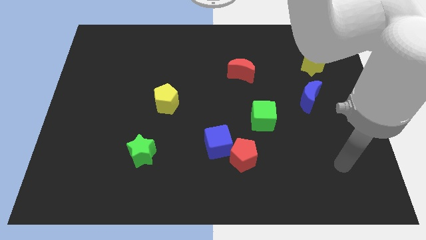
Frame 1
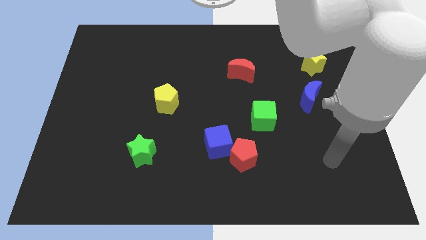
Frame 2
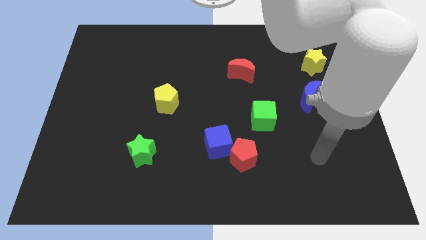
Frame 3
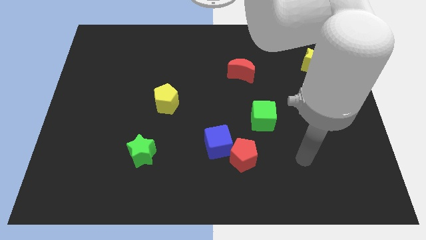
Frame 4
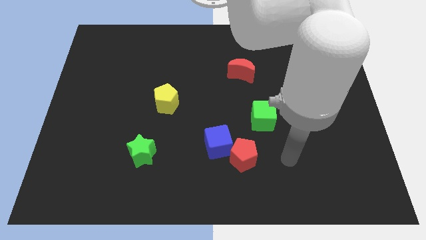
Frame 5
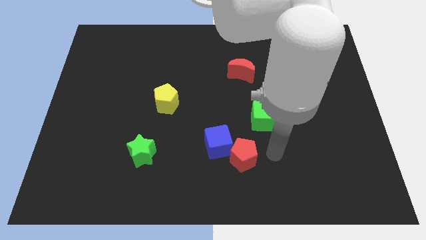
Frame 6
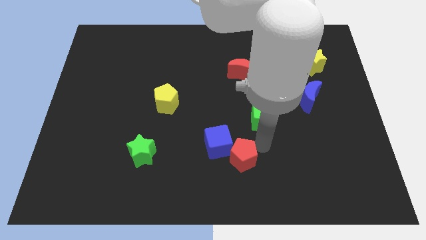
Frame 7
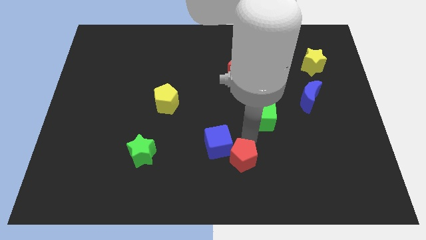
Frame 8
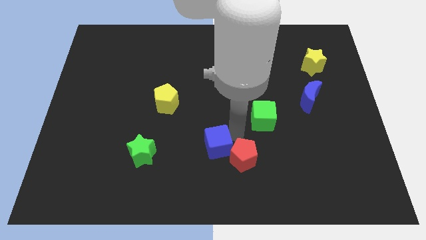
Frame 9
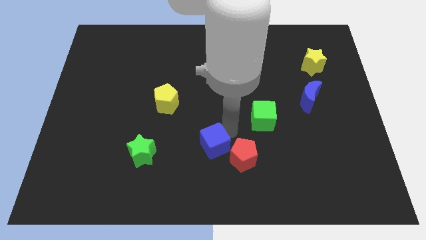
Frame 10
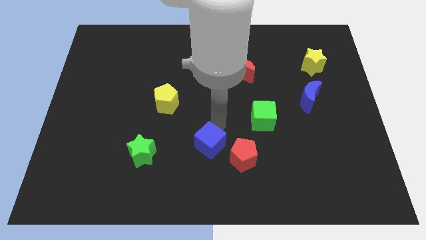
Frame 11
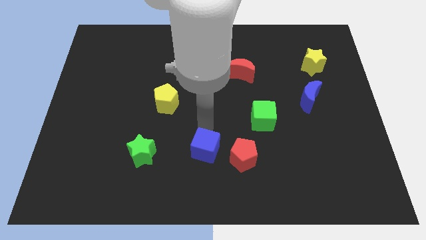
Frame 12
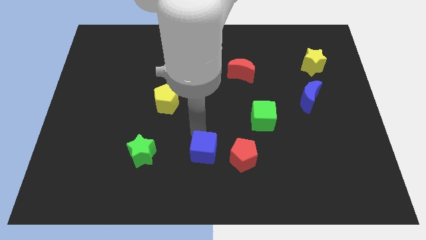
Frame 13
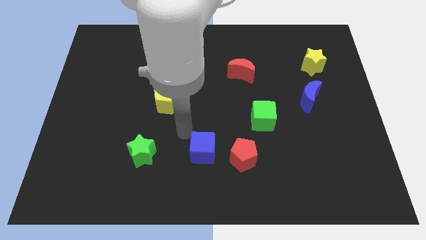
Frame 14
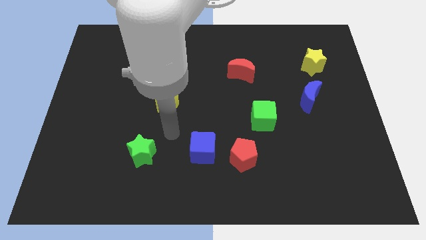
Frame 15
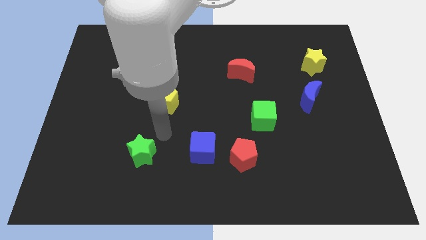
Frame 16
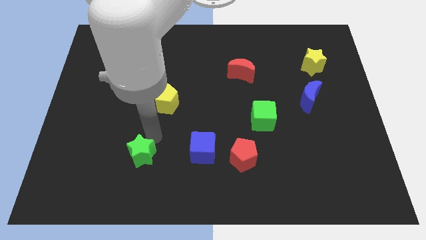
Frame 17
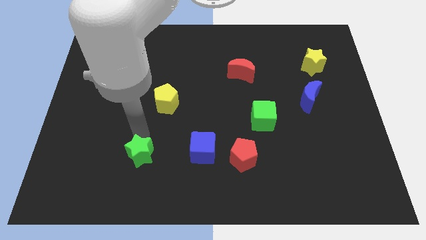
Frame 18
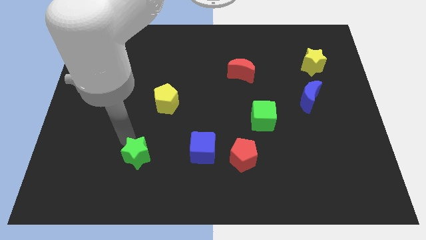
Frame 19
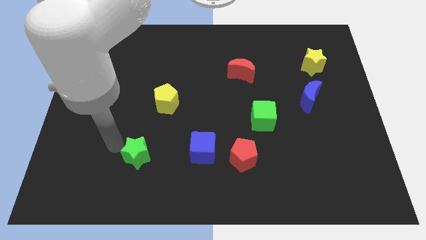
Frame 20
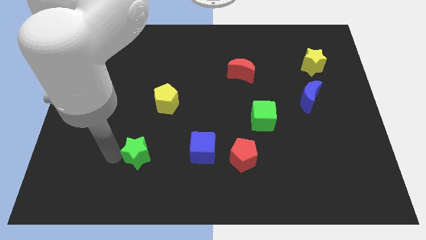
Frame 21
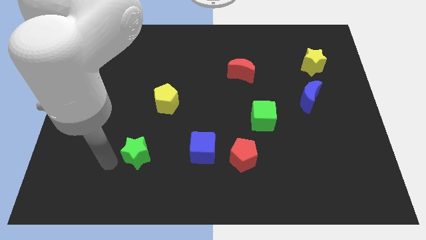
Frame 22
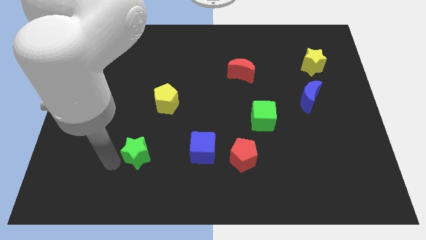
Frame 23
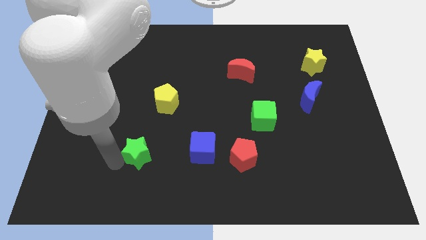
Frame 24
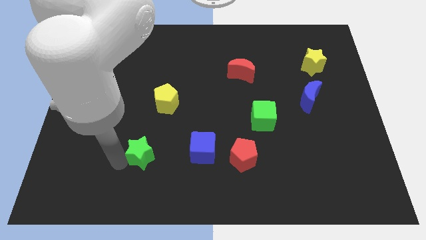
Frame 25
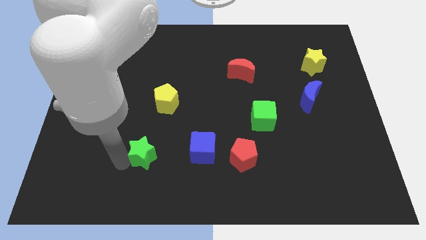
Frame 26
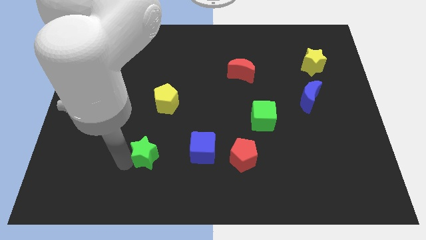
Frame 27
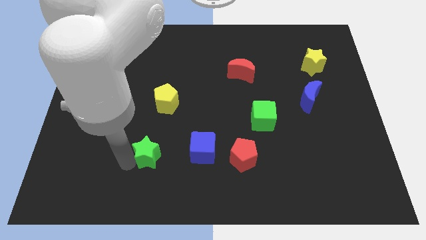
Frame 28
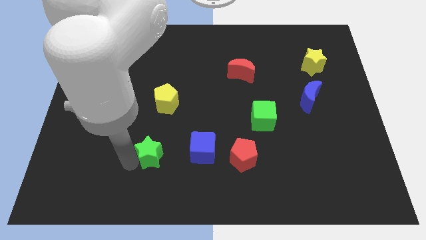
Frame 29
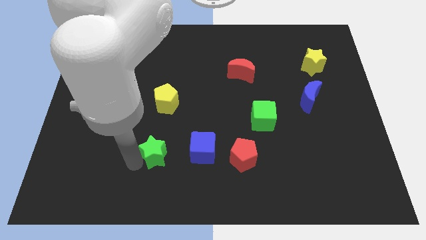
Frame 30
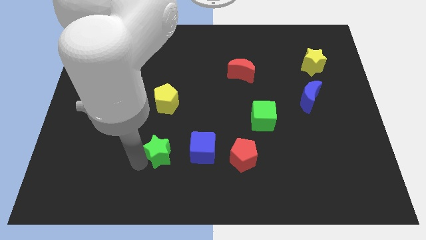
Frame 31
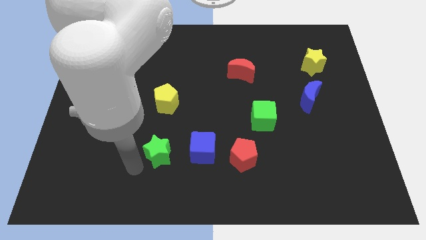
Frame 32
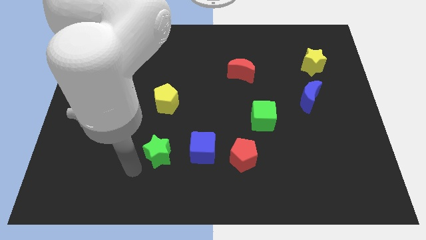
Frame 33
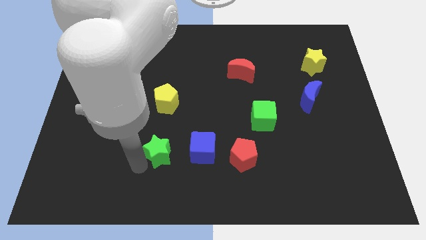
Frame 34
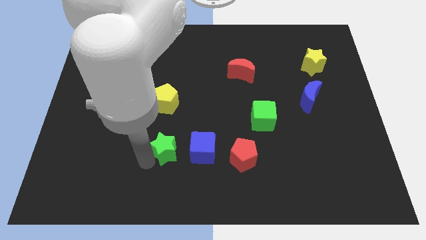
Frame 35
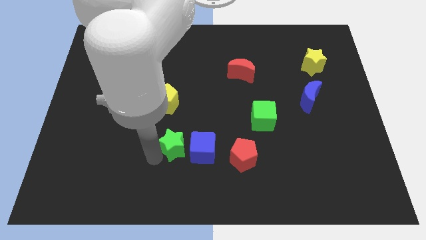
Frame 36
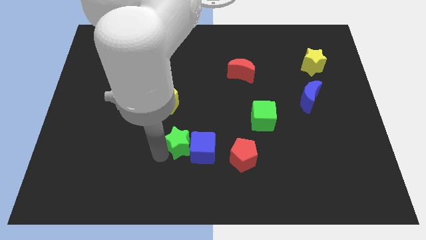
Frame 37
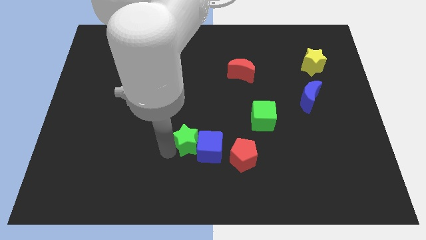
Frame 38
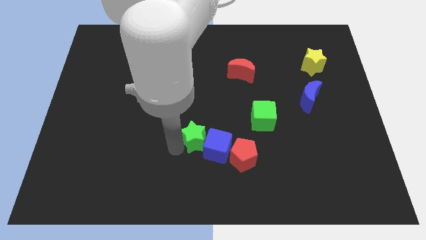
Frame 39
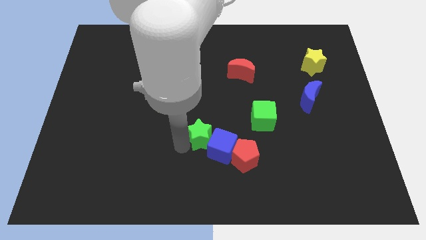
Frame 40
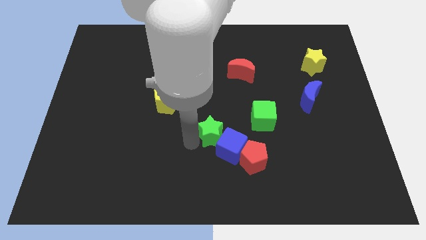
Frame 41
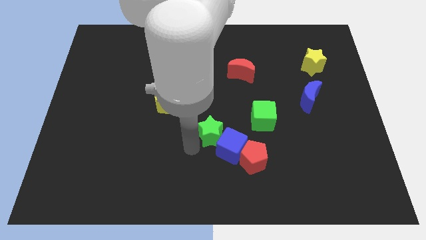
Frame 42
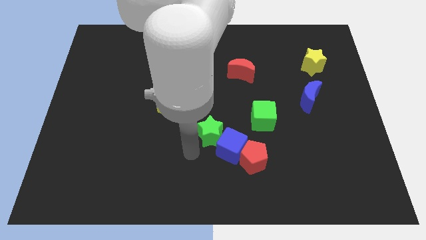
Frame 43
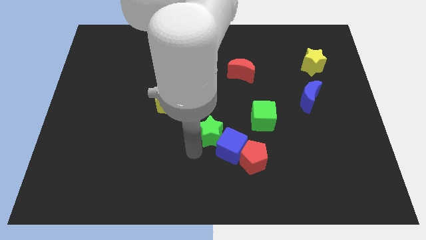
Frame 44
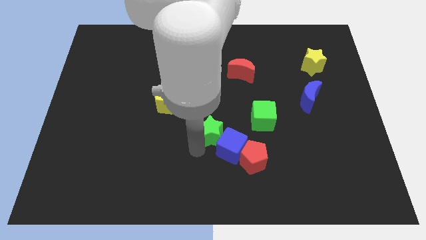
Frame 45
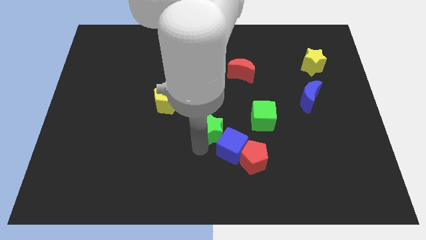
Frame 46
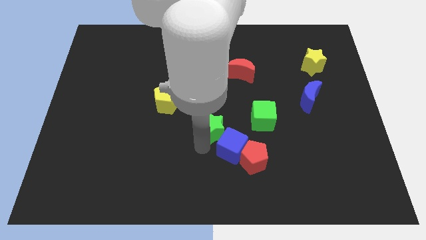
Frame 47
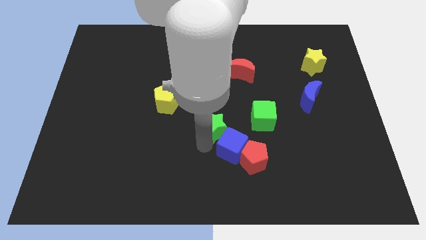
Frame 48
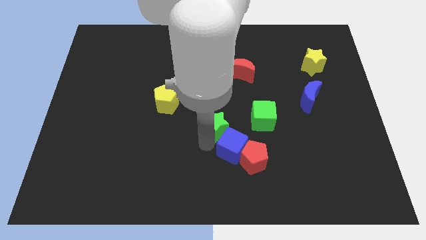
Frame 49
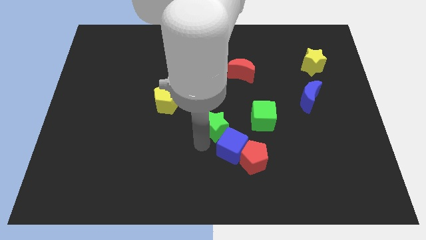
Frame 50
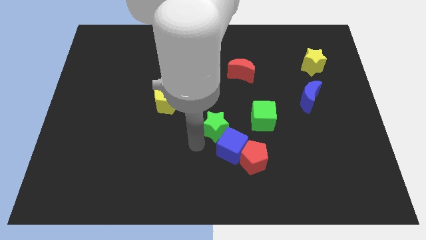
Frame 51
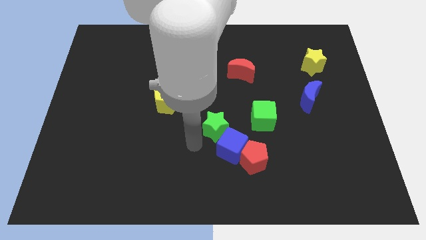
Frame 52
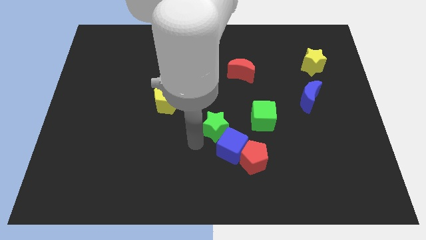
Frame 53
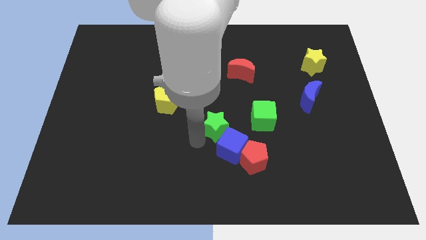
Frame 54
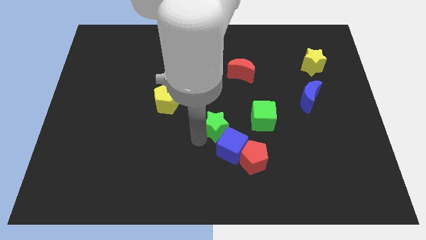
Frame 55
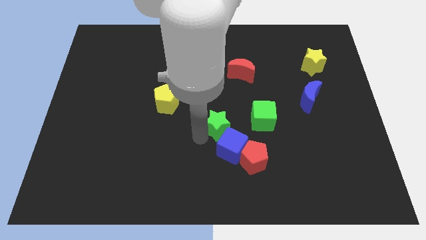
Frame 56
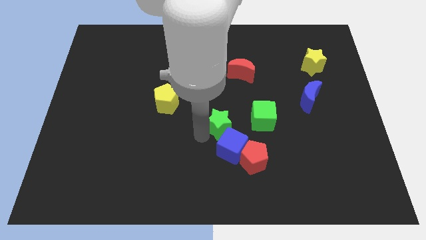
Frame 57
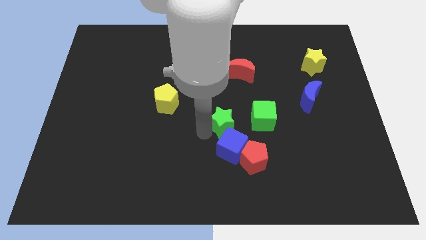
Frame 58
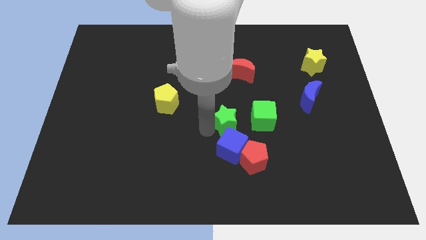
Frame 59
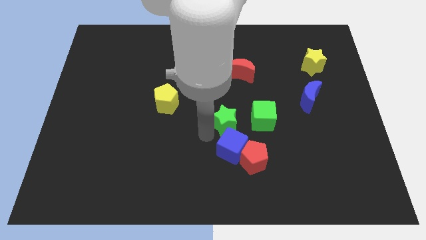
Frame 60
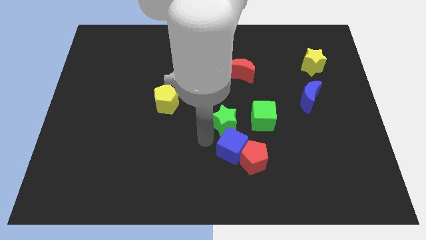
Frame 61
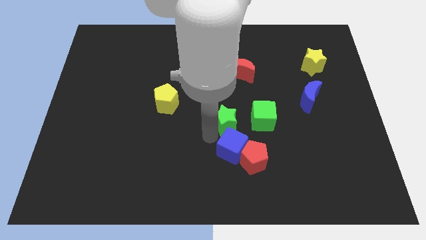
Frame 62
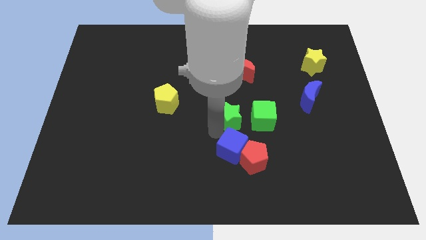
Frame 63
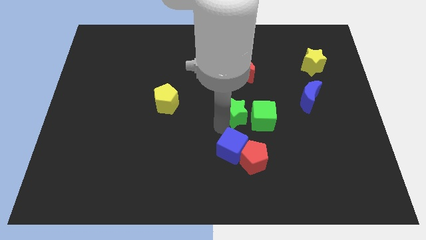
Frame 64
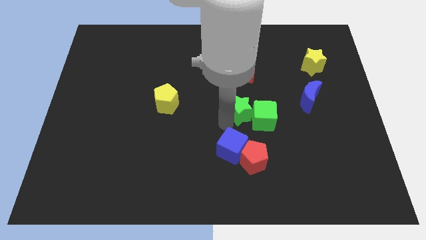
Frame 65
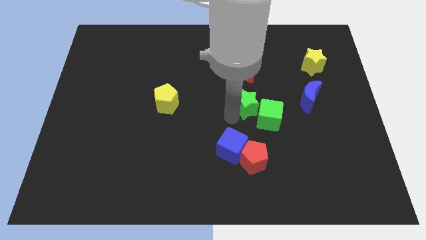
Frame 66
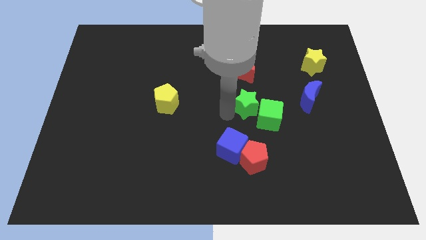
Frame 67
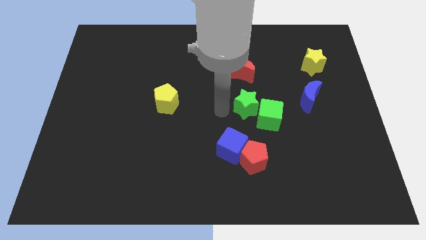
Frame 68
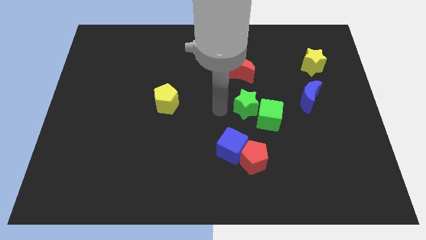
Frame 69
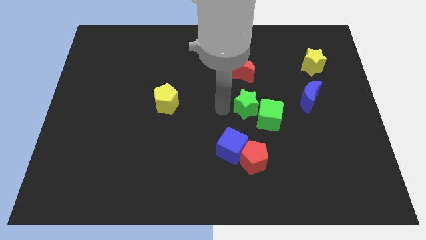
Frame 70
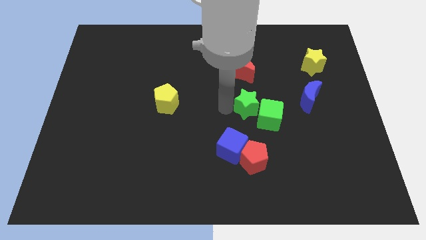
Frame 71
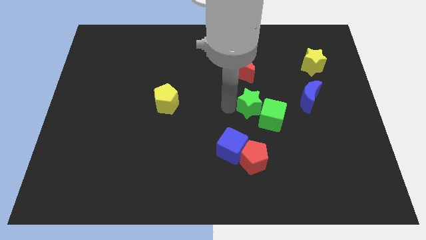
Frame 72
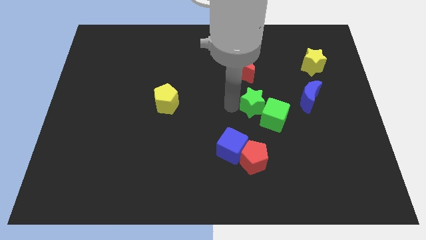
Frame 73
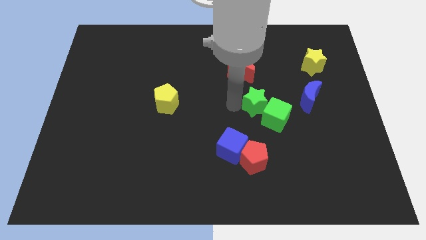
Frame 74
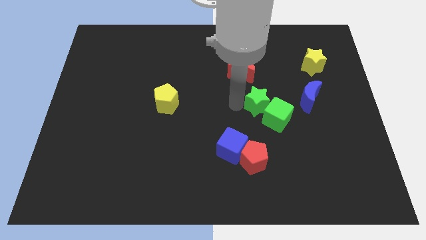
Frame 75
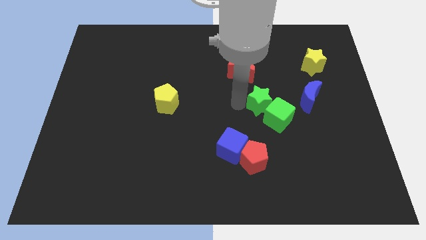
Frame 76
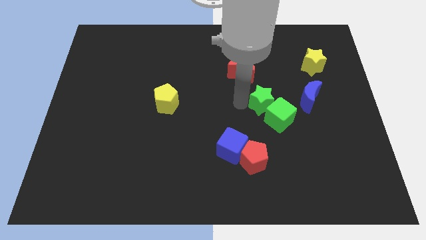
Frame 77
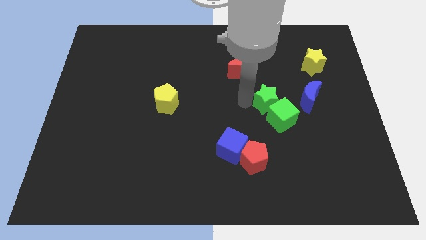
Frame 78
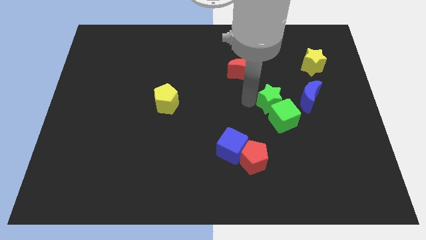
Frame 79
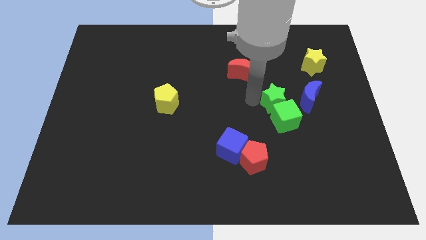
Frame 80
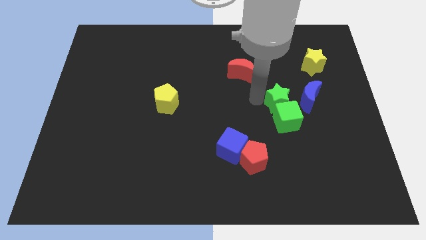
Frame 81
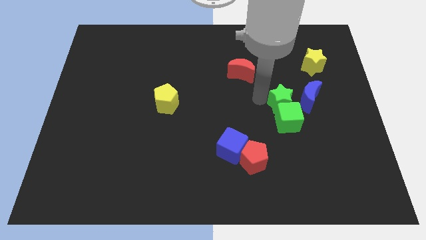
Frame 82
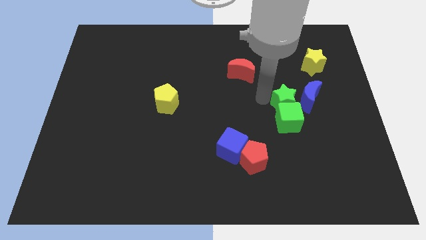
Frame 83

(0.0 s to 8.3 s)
move the green star towards the blue moon
